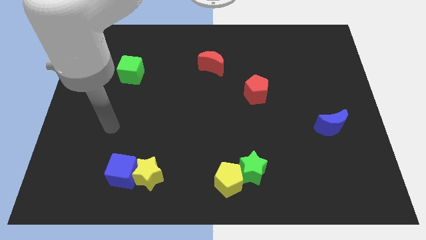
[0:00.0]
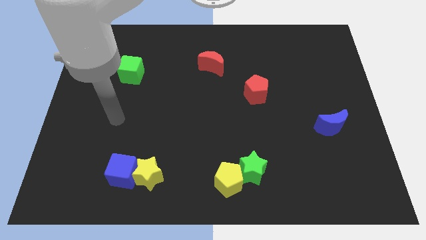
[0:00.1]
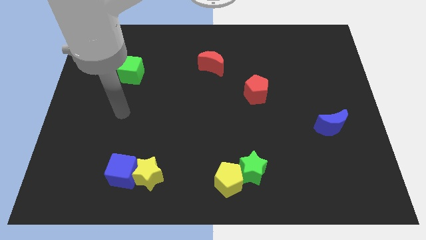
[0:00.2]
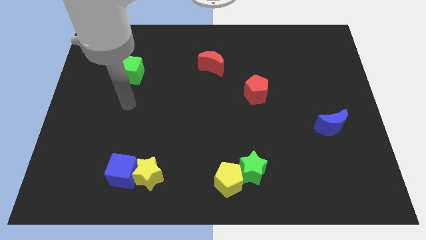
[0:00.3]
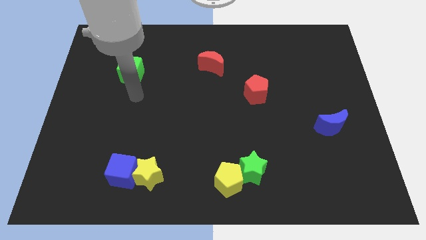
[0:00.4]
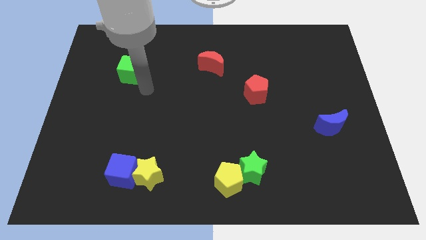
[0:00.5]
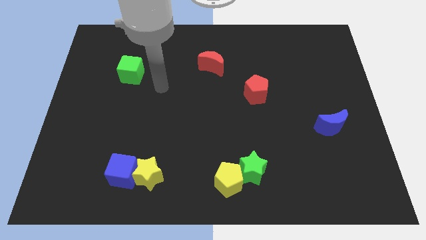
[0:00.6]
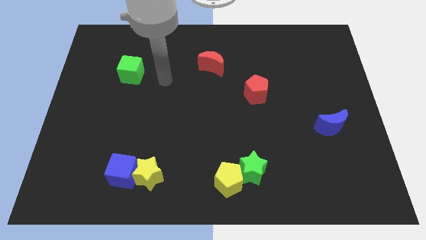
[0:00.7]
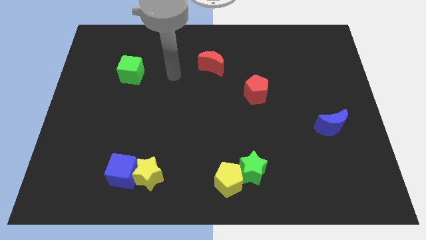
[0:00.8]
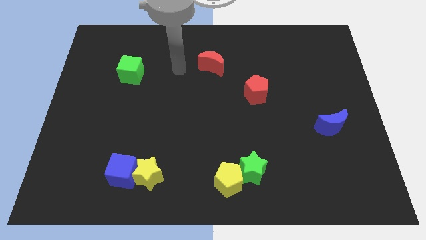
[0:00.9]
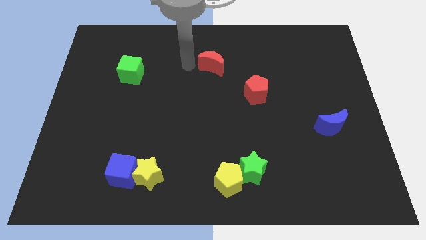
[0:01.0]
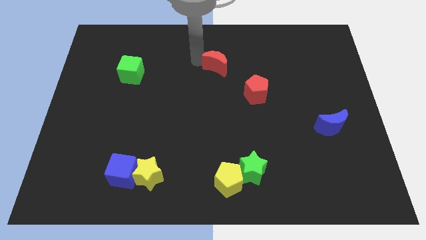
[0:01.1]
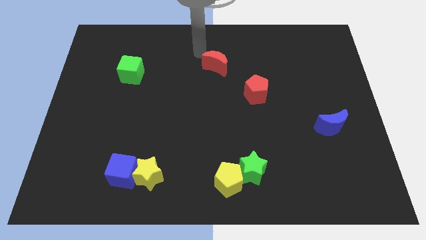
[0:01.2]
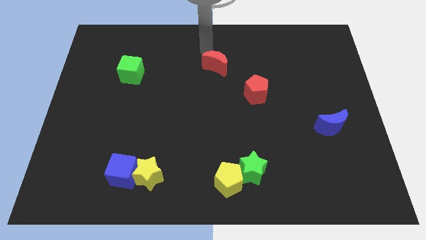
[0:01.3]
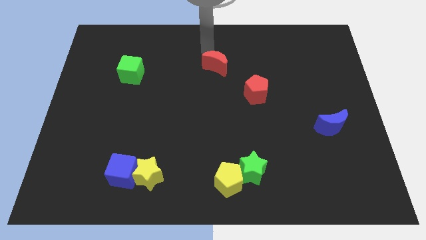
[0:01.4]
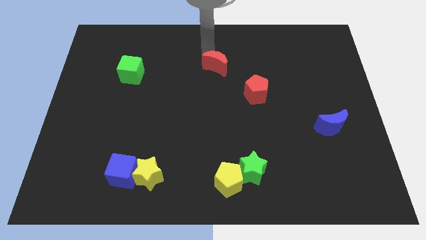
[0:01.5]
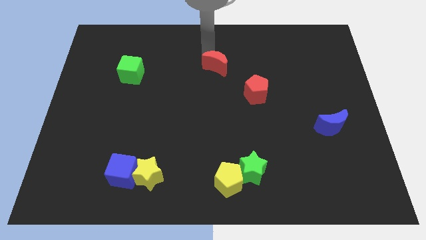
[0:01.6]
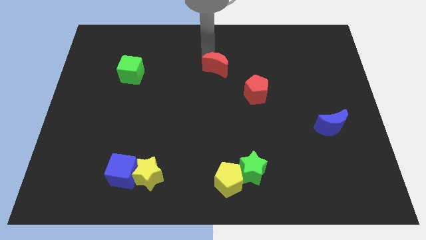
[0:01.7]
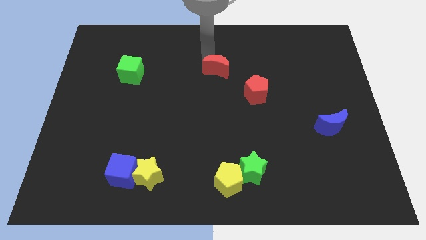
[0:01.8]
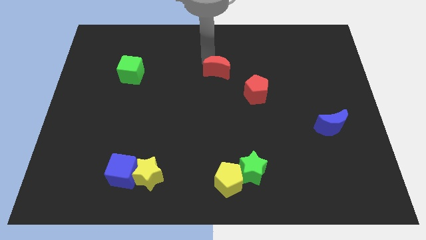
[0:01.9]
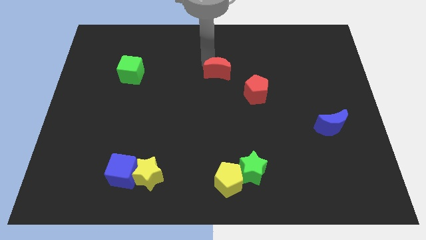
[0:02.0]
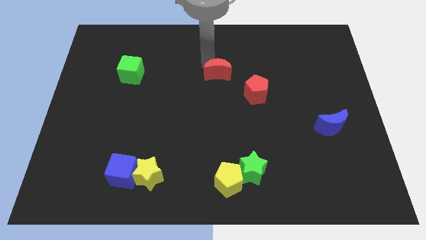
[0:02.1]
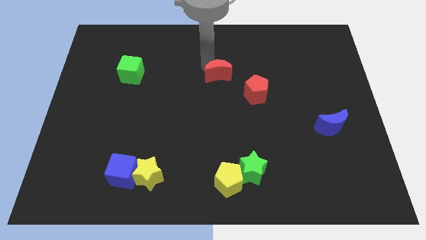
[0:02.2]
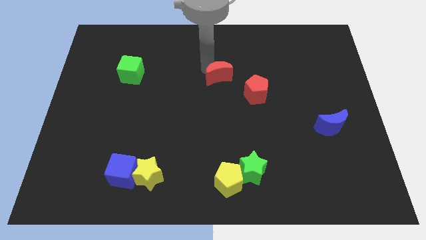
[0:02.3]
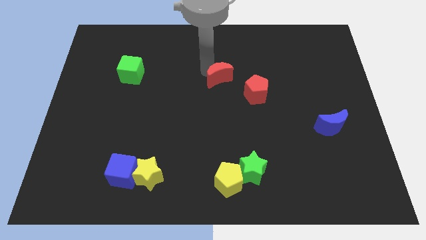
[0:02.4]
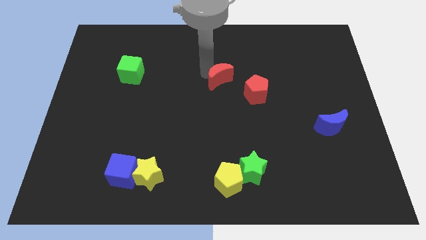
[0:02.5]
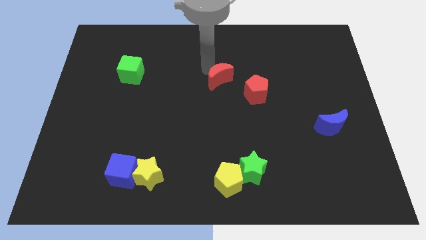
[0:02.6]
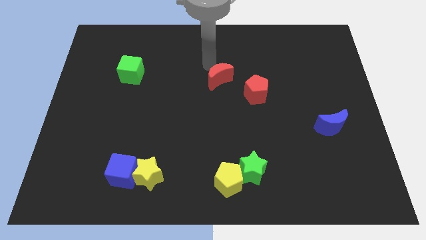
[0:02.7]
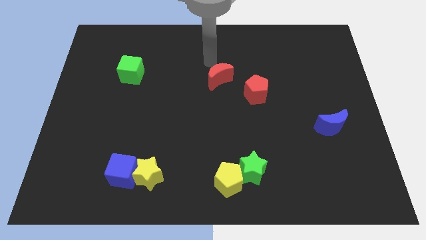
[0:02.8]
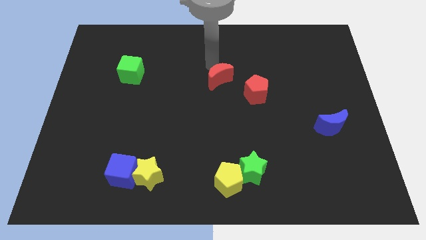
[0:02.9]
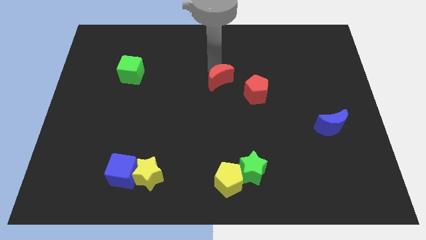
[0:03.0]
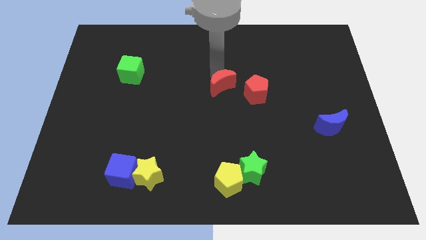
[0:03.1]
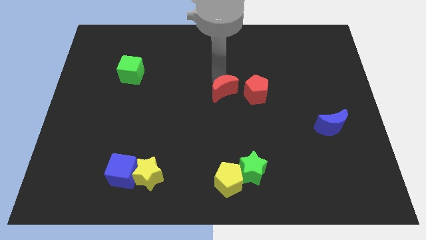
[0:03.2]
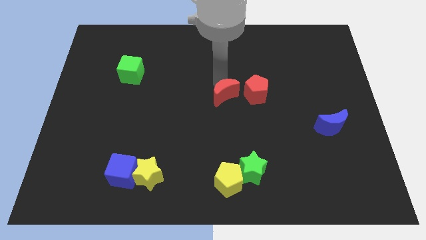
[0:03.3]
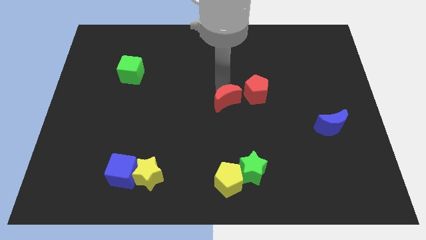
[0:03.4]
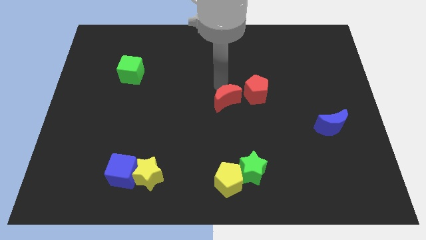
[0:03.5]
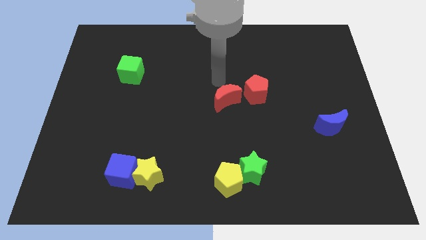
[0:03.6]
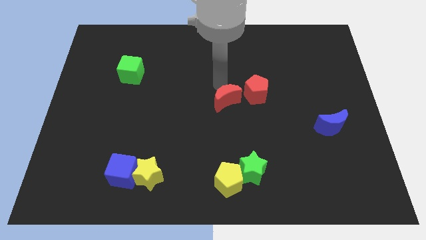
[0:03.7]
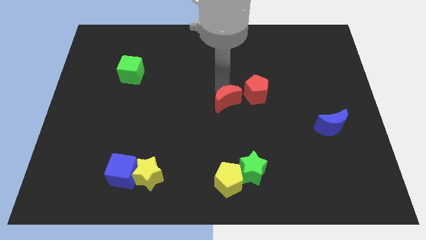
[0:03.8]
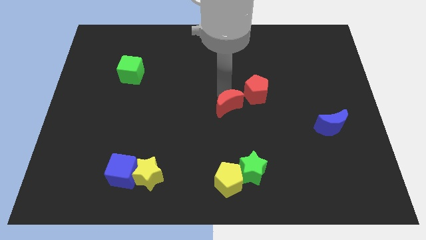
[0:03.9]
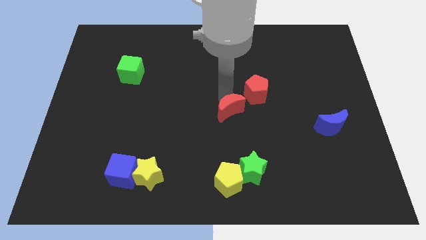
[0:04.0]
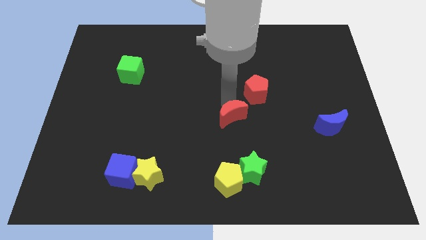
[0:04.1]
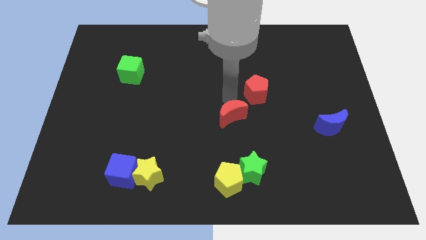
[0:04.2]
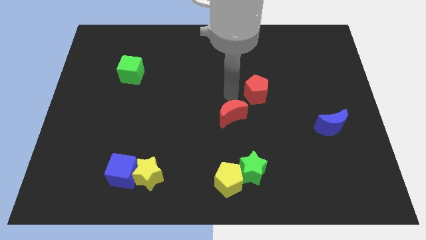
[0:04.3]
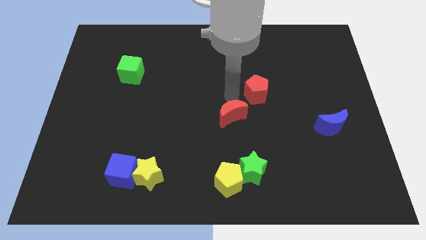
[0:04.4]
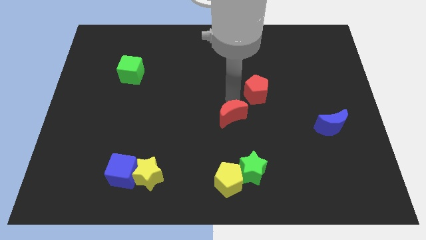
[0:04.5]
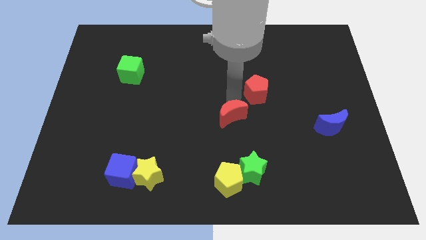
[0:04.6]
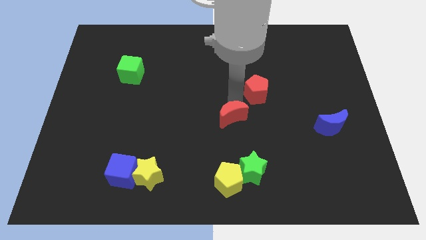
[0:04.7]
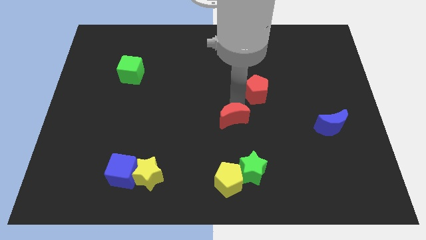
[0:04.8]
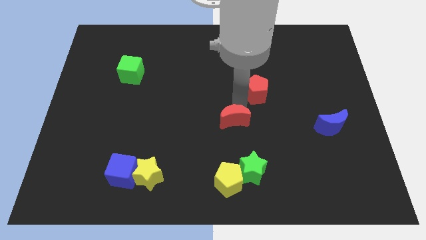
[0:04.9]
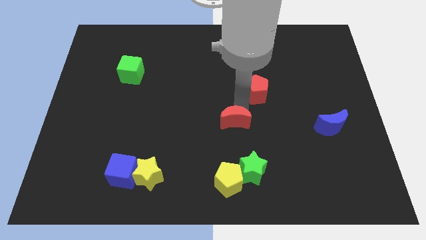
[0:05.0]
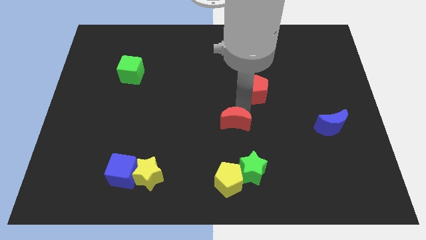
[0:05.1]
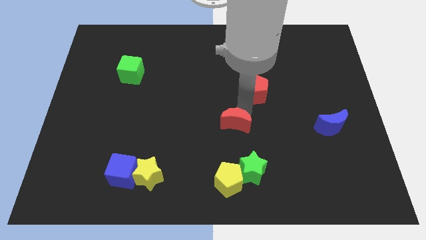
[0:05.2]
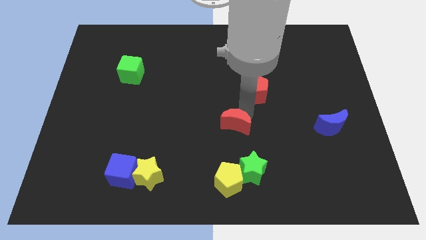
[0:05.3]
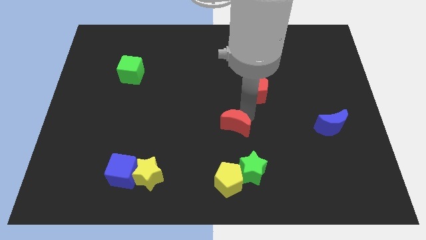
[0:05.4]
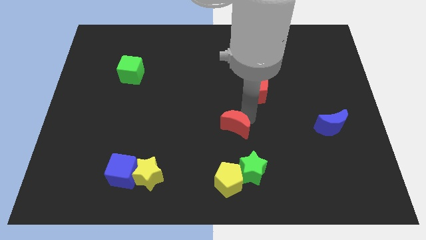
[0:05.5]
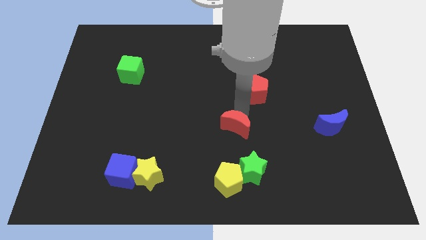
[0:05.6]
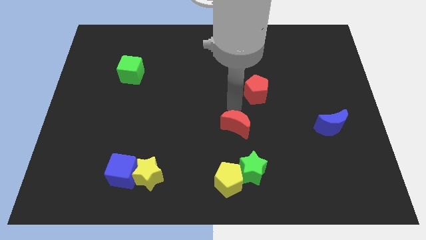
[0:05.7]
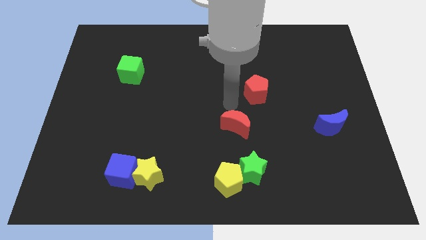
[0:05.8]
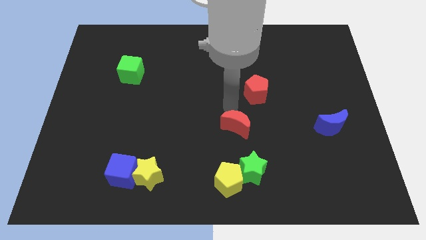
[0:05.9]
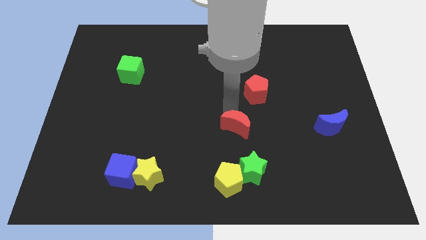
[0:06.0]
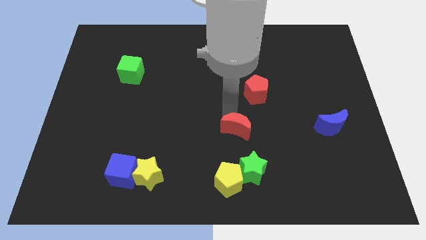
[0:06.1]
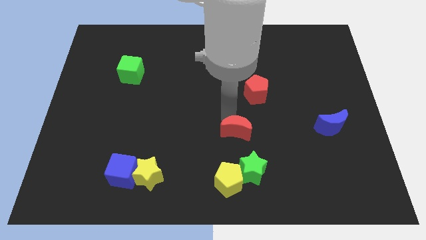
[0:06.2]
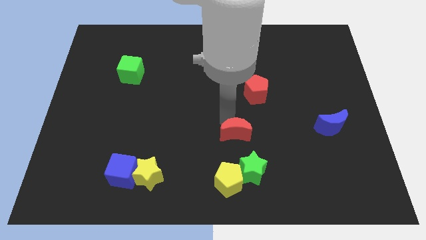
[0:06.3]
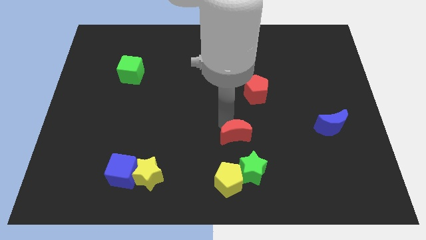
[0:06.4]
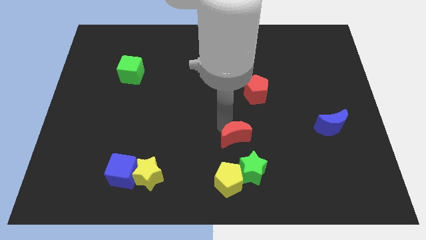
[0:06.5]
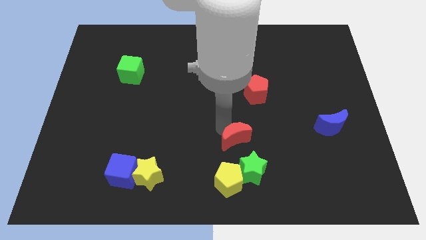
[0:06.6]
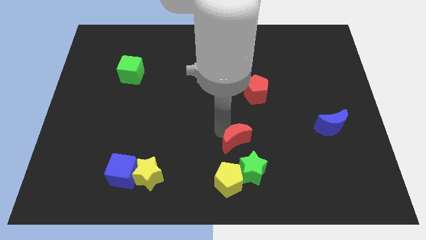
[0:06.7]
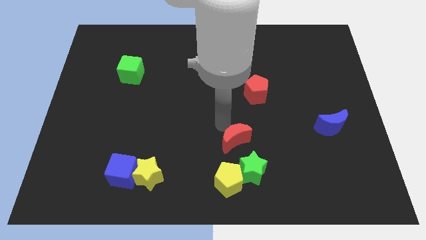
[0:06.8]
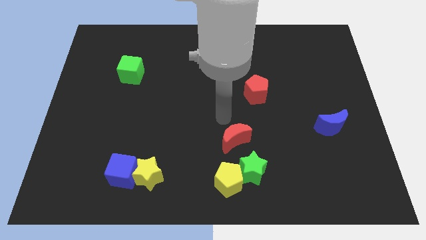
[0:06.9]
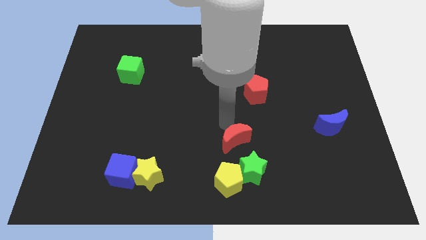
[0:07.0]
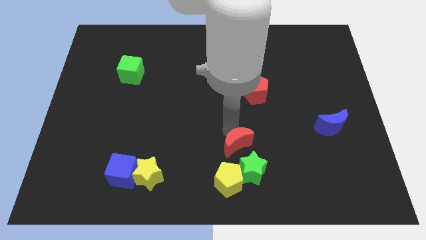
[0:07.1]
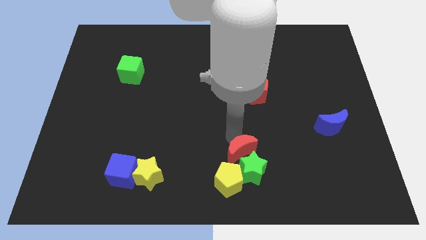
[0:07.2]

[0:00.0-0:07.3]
push the red moon to the green star
